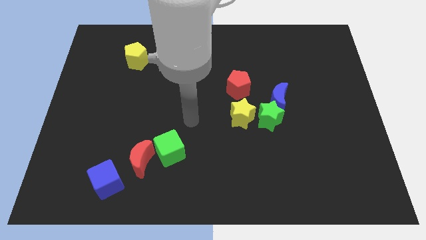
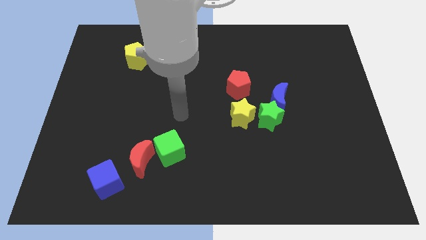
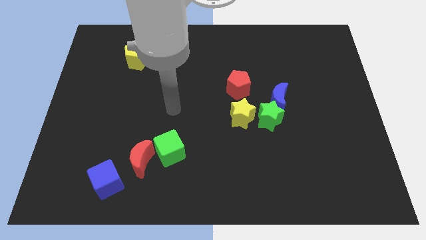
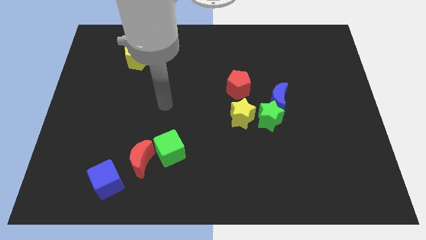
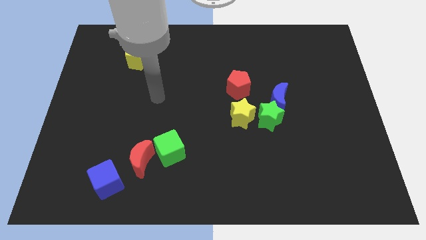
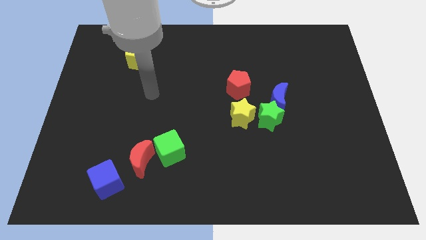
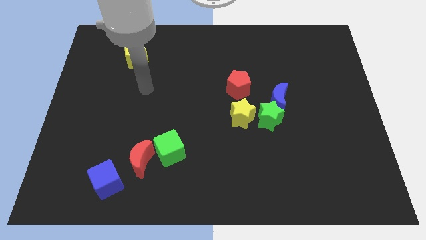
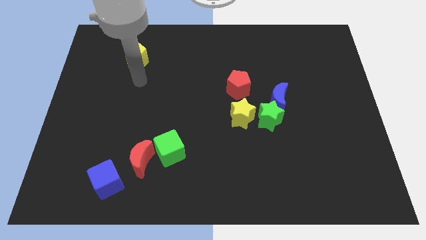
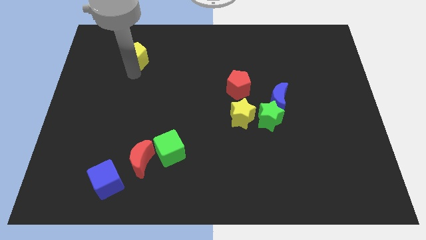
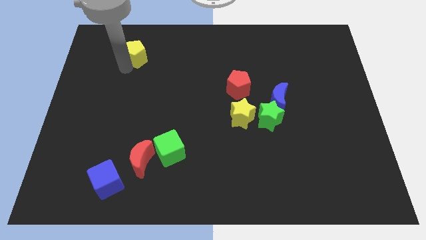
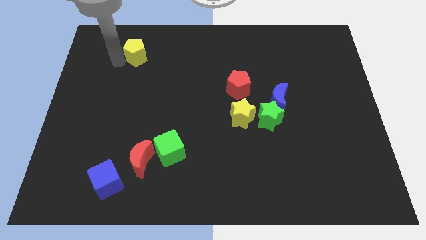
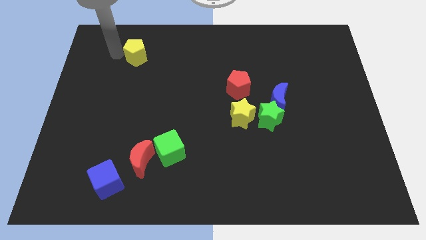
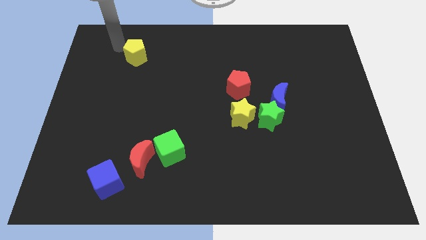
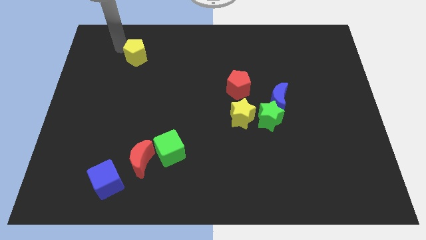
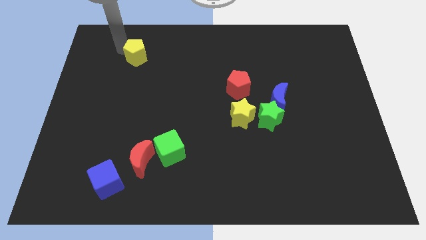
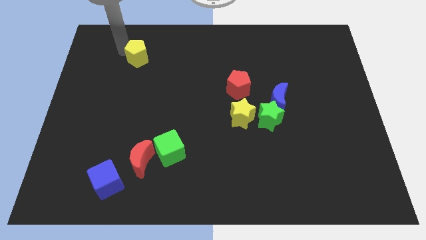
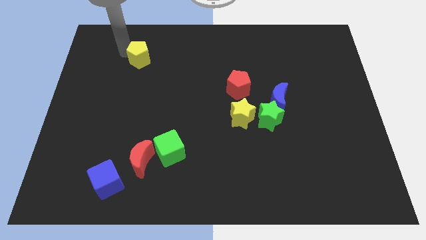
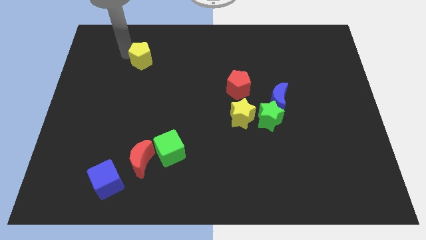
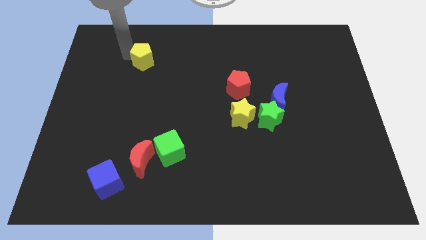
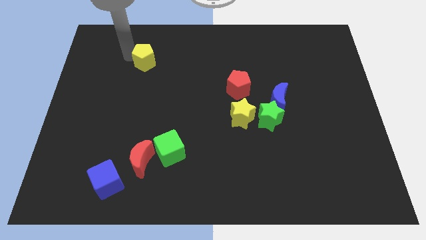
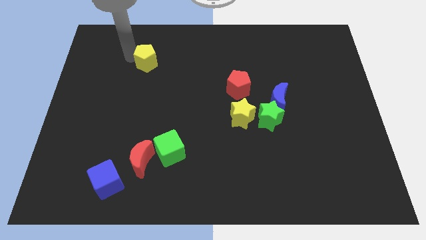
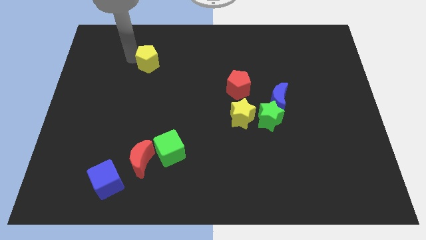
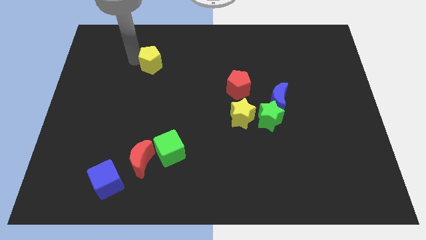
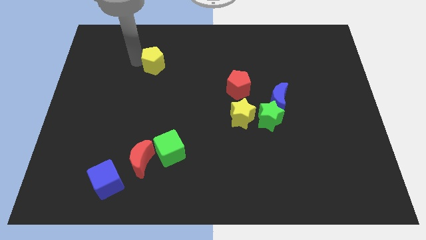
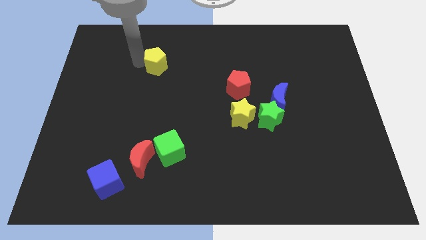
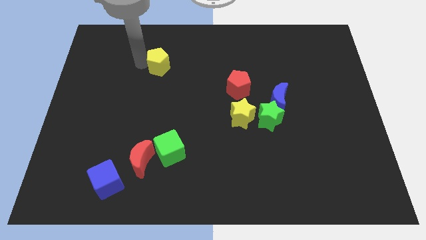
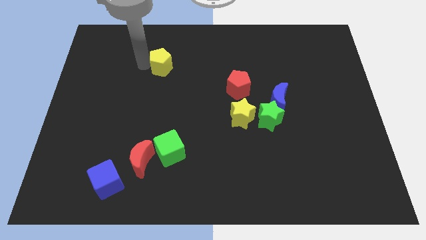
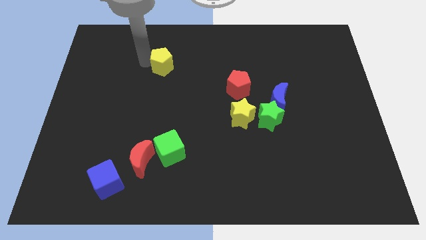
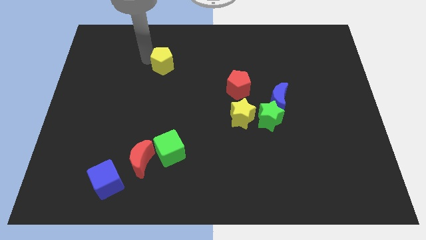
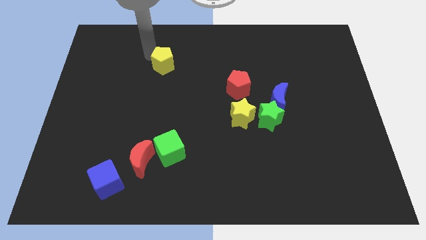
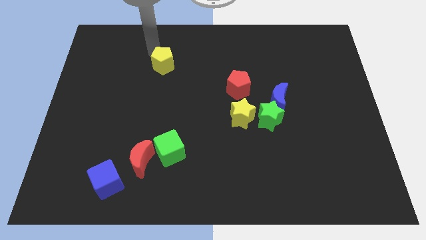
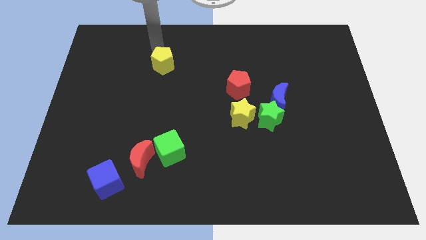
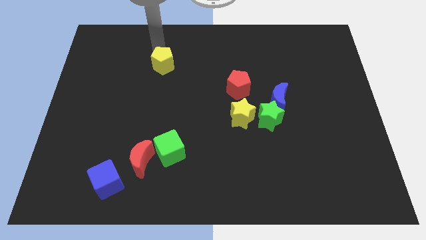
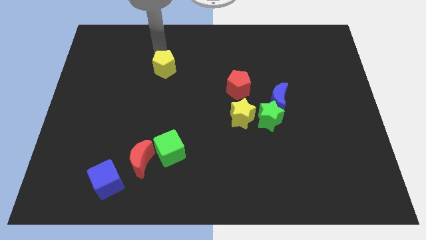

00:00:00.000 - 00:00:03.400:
push the yellow pentagon downwards and to the right diagonally slightly

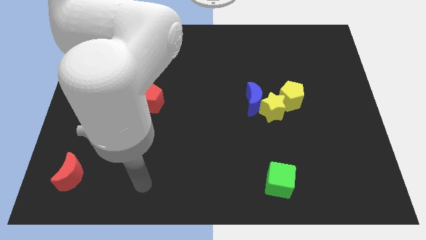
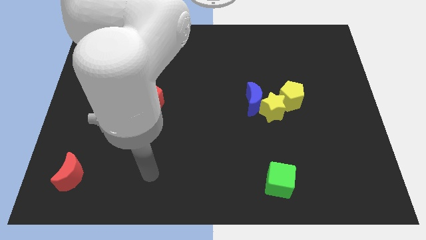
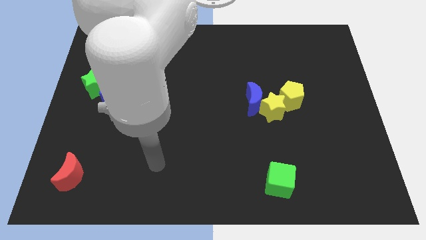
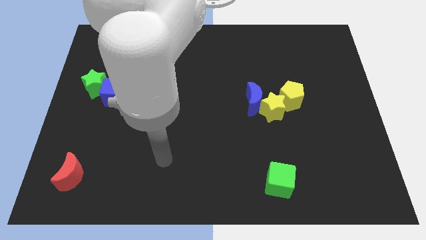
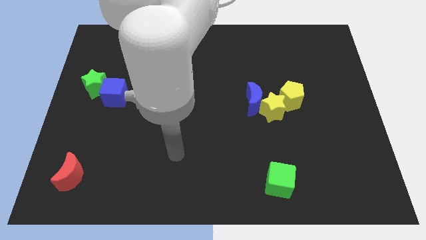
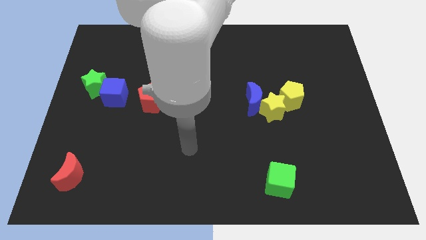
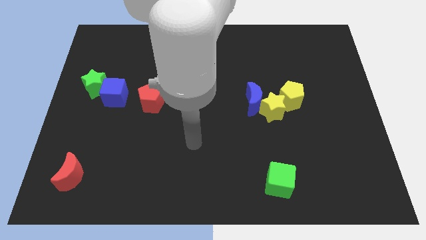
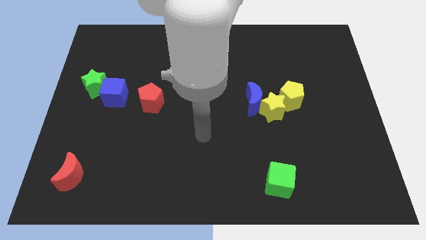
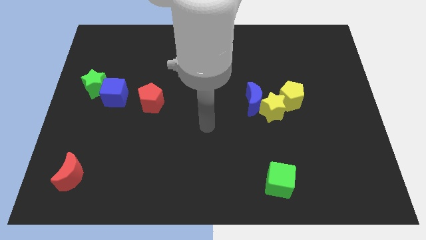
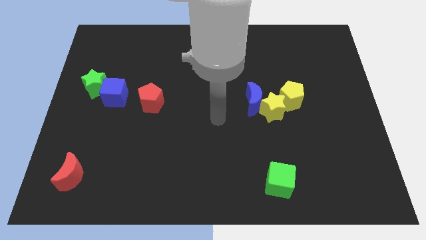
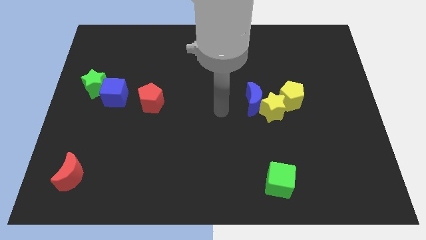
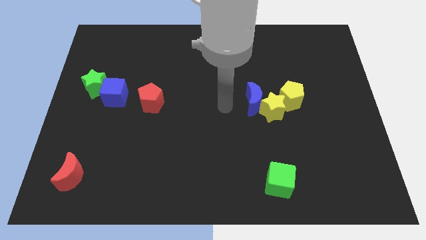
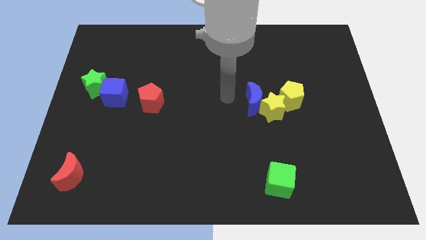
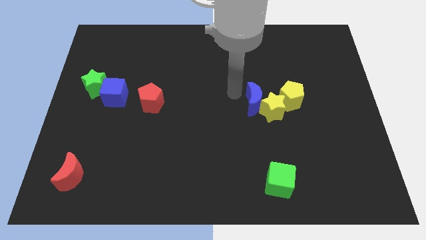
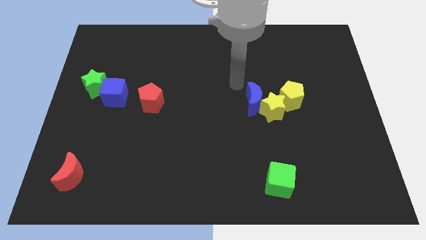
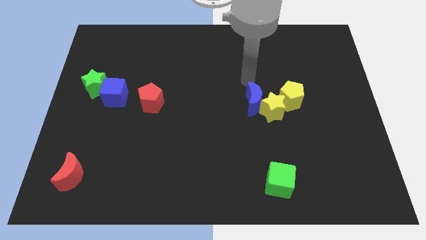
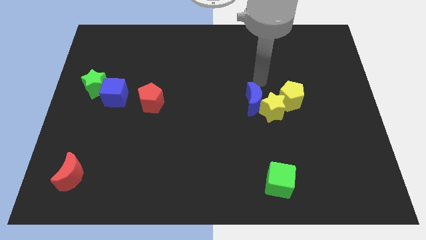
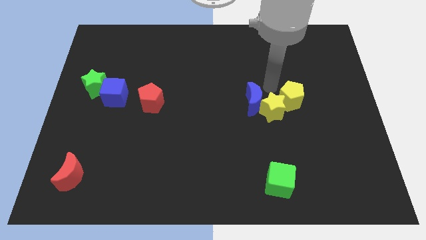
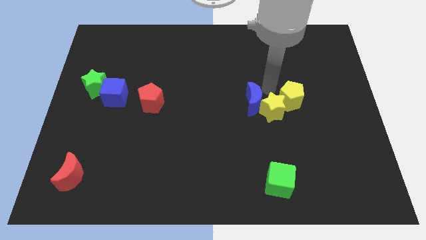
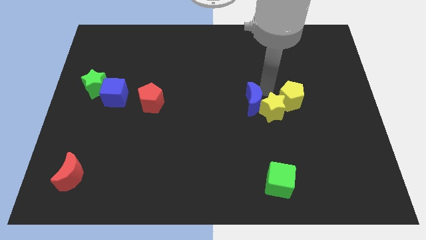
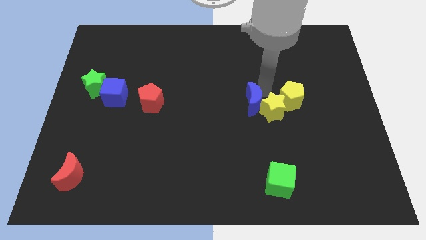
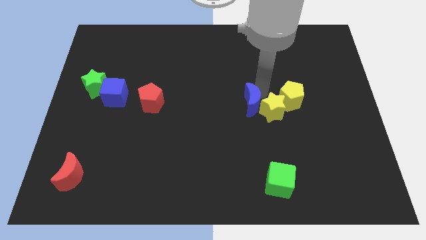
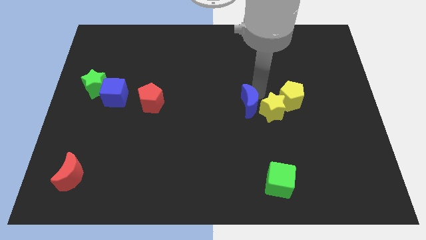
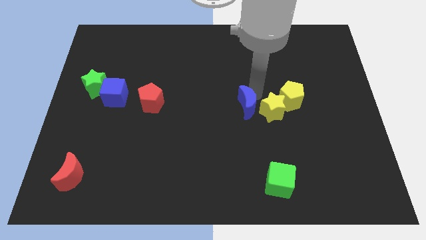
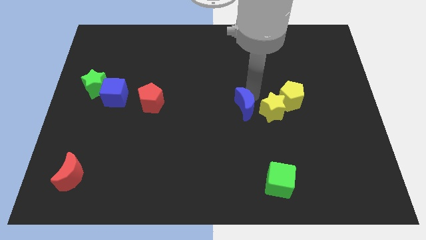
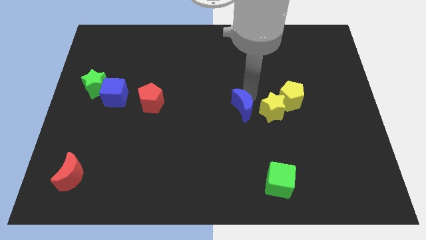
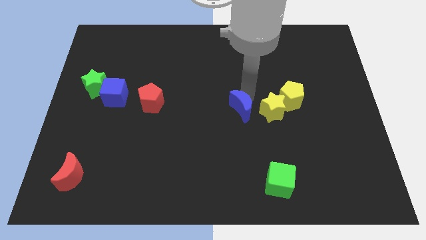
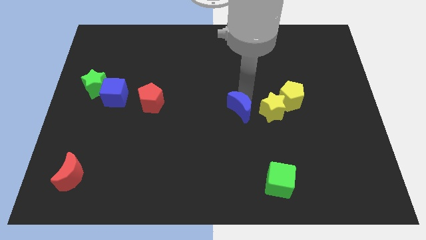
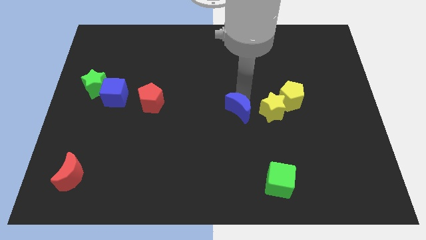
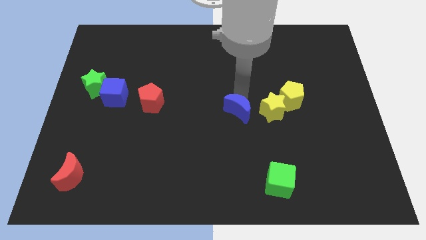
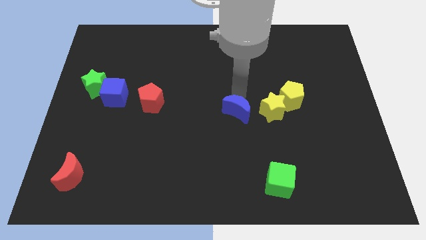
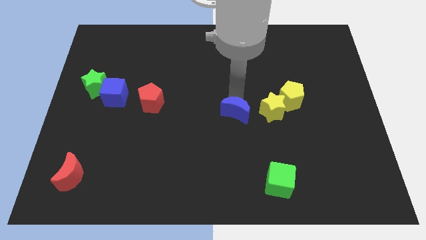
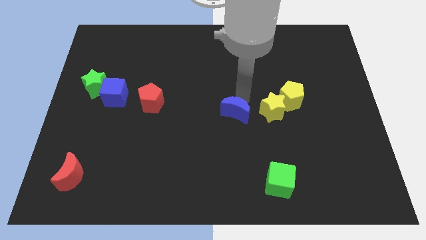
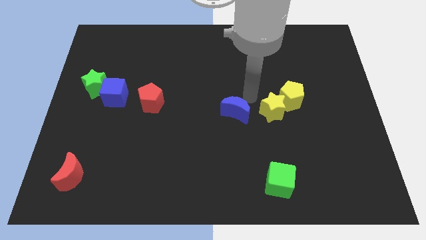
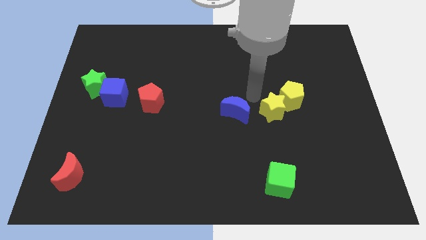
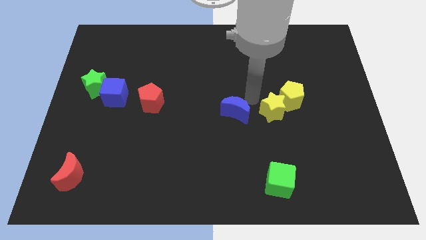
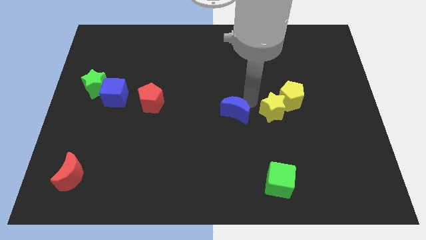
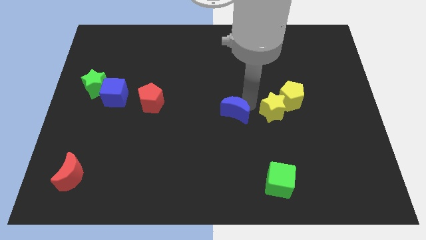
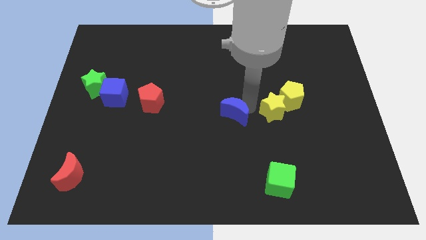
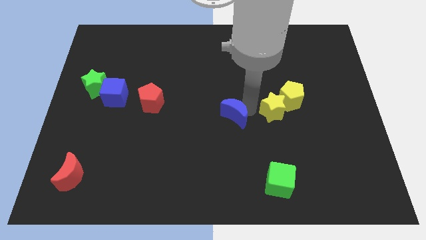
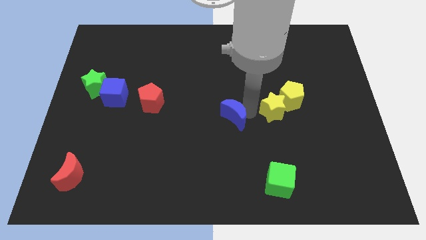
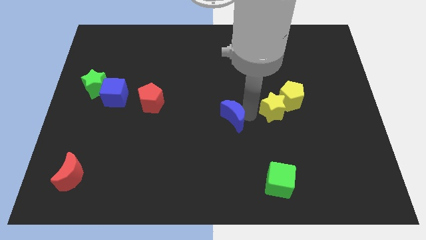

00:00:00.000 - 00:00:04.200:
slightly move the blue moon downwards and to the left
